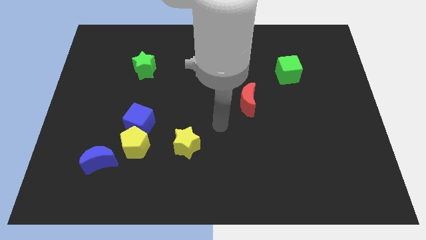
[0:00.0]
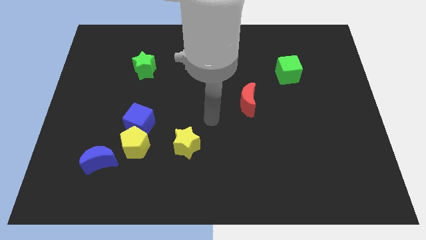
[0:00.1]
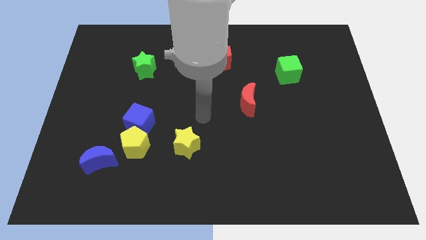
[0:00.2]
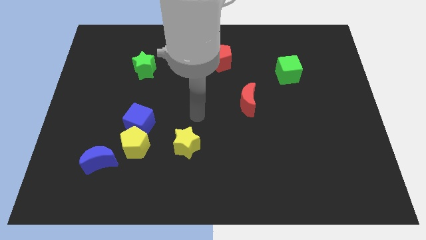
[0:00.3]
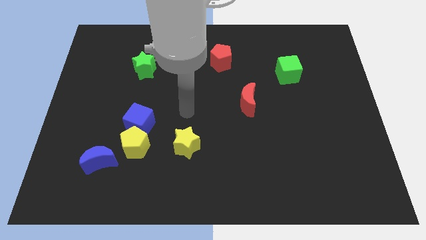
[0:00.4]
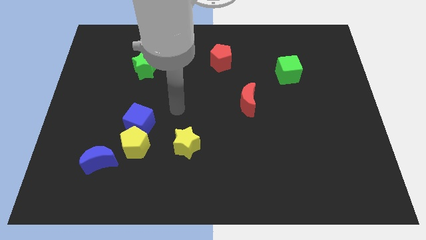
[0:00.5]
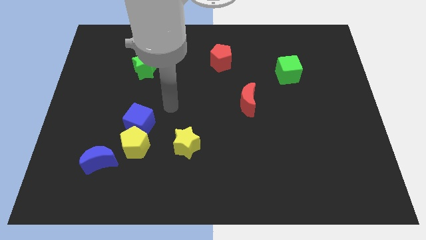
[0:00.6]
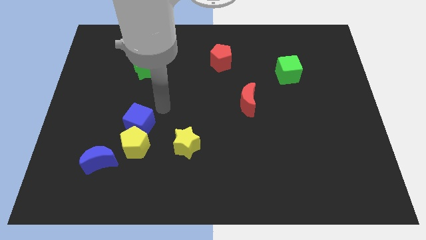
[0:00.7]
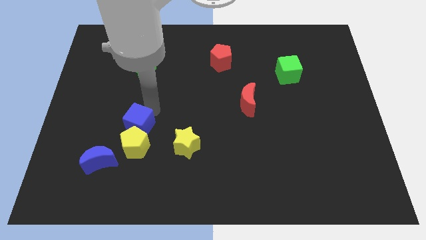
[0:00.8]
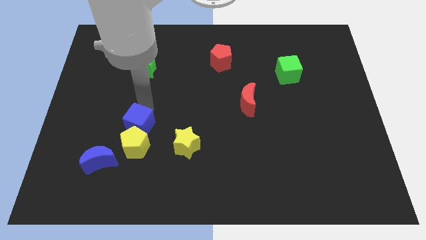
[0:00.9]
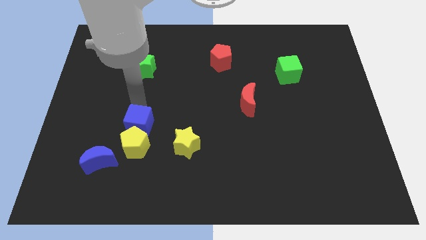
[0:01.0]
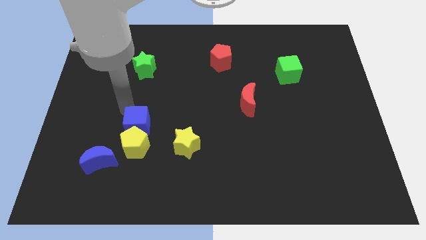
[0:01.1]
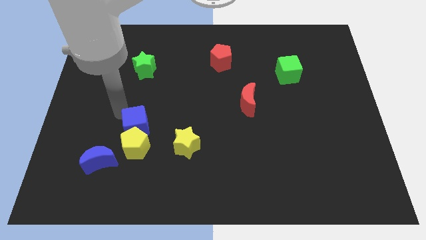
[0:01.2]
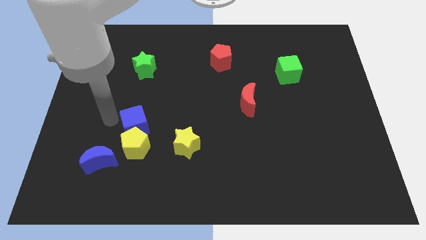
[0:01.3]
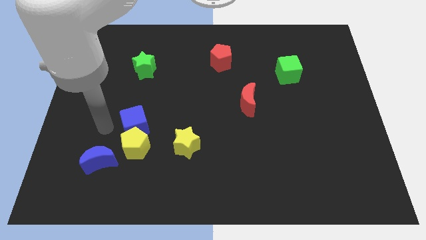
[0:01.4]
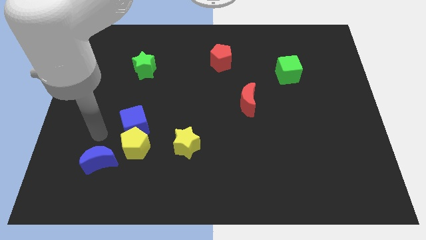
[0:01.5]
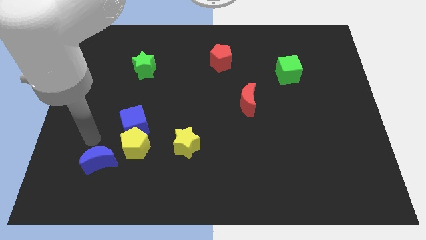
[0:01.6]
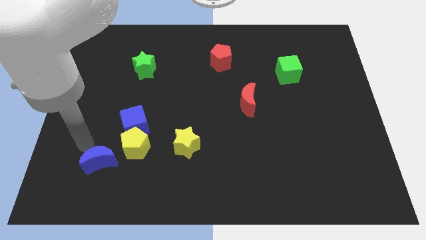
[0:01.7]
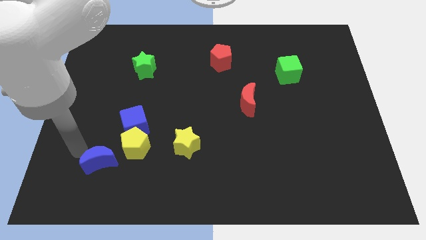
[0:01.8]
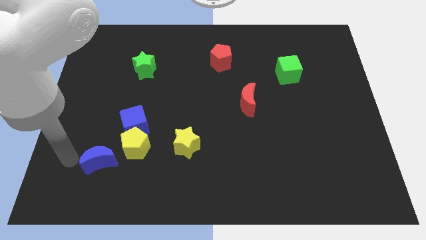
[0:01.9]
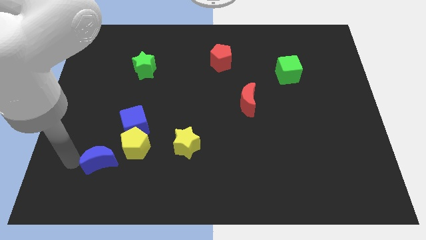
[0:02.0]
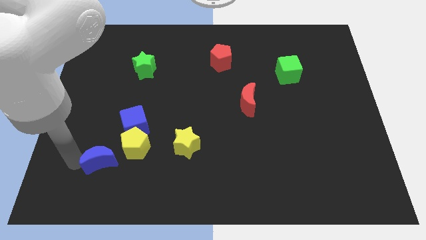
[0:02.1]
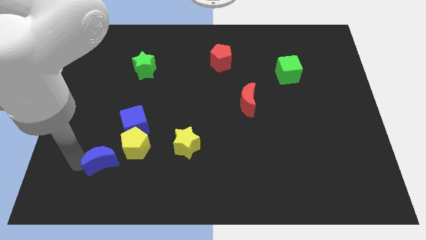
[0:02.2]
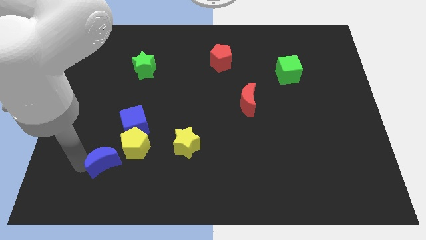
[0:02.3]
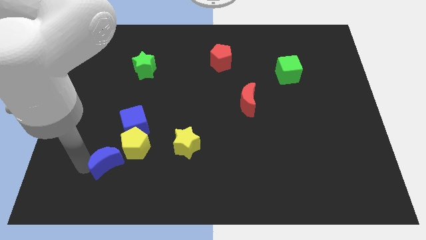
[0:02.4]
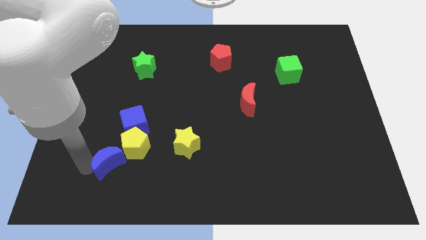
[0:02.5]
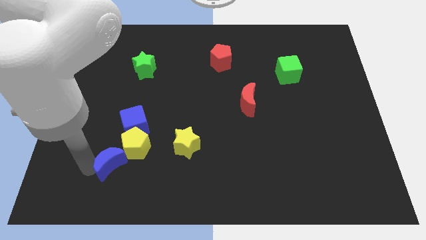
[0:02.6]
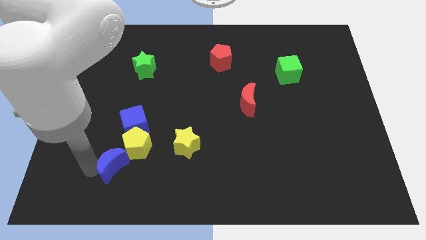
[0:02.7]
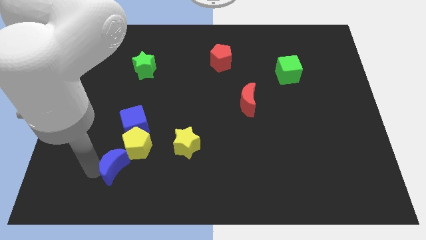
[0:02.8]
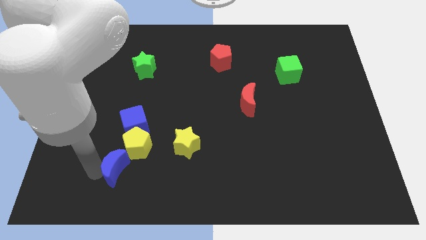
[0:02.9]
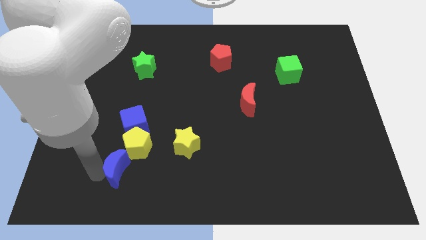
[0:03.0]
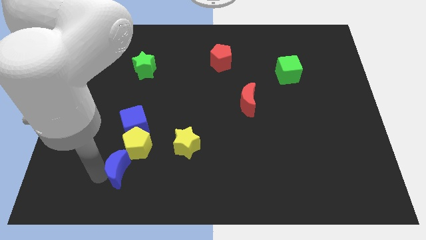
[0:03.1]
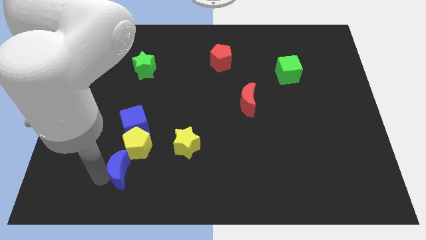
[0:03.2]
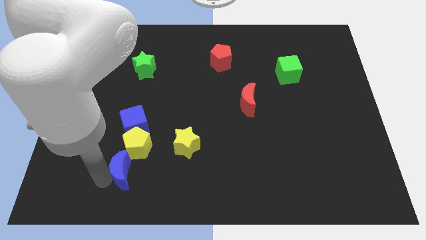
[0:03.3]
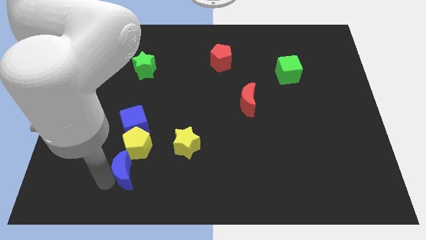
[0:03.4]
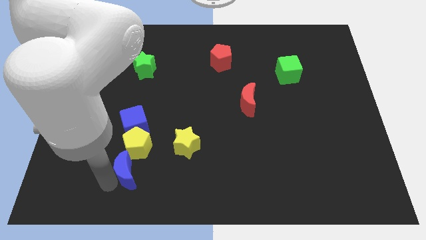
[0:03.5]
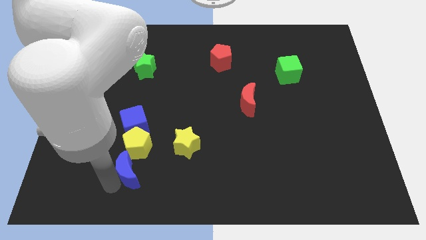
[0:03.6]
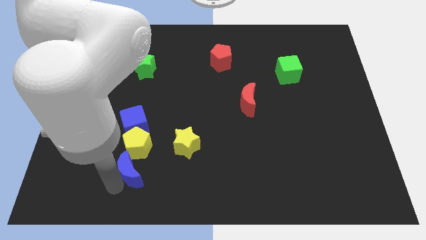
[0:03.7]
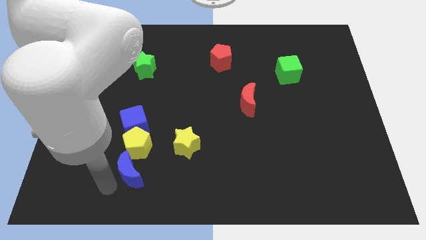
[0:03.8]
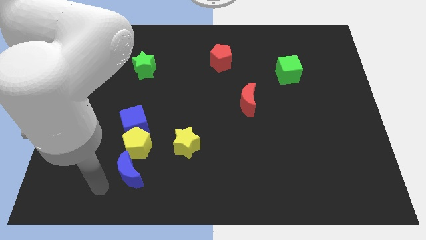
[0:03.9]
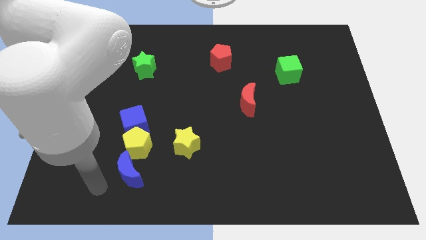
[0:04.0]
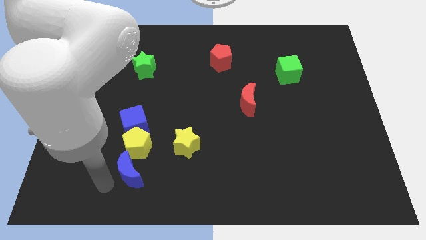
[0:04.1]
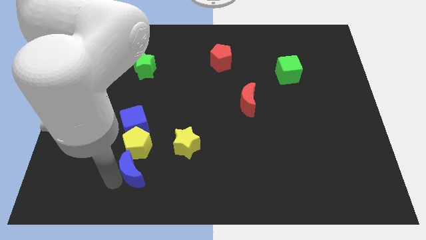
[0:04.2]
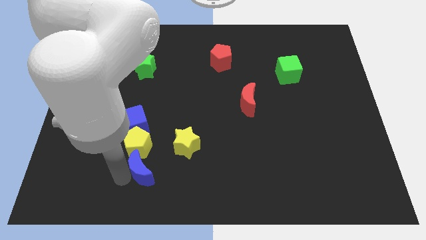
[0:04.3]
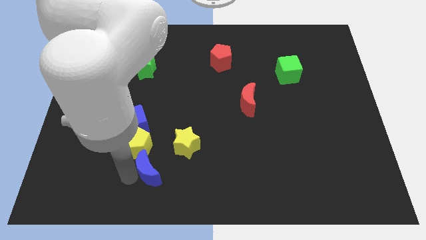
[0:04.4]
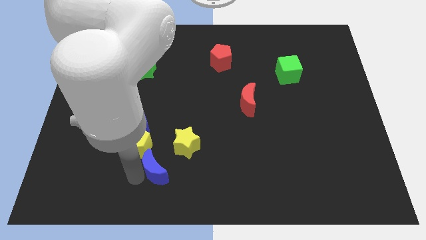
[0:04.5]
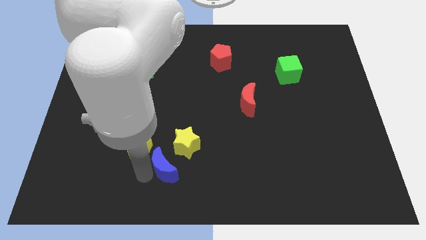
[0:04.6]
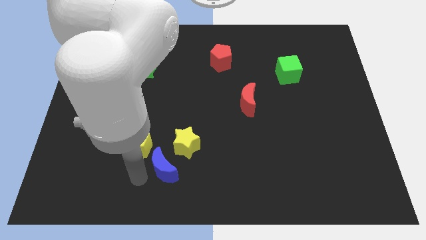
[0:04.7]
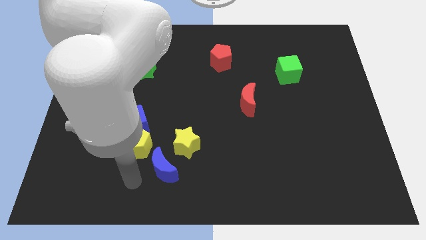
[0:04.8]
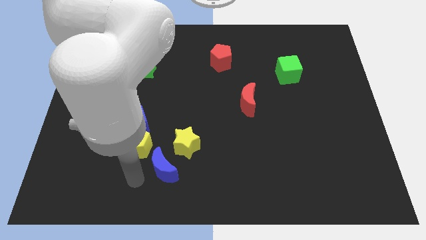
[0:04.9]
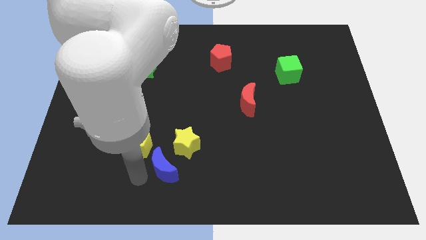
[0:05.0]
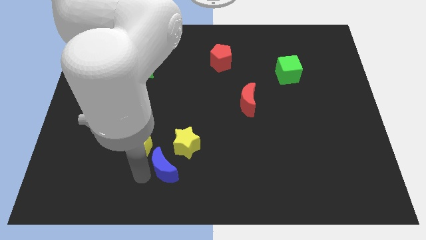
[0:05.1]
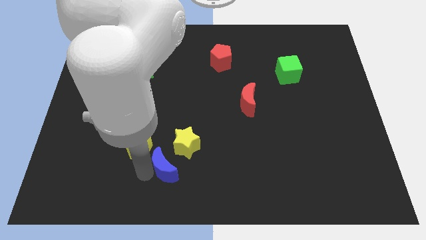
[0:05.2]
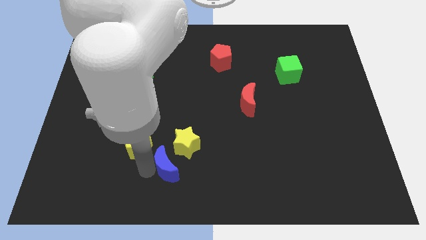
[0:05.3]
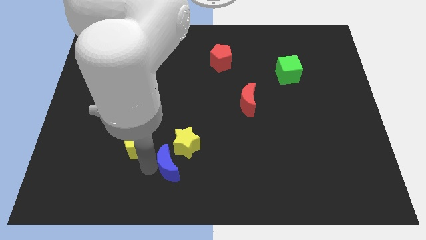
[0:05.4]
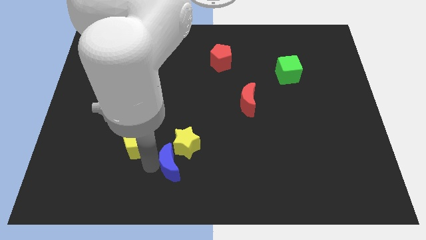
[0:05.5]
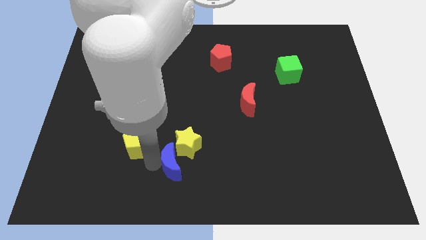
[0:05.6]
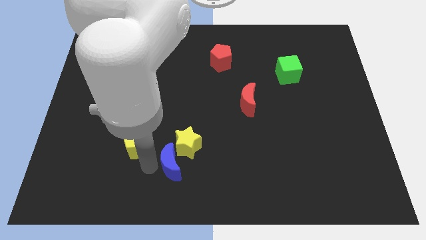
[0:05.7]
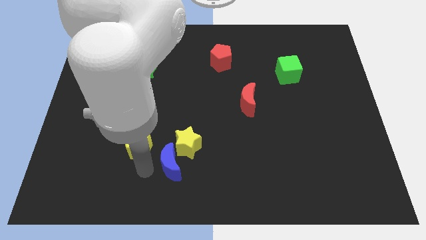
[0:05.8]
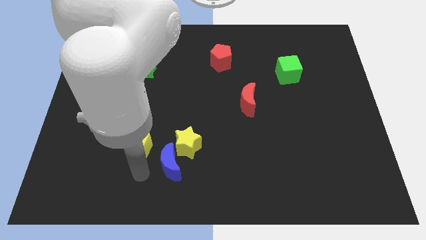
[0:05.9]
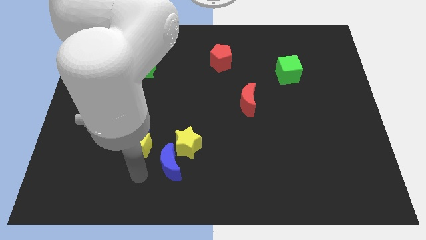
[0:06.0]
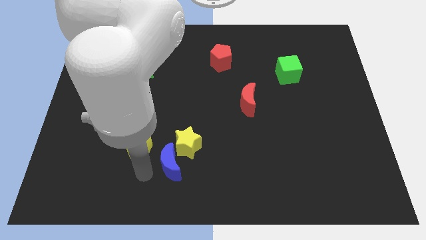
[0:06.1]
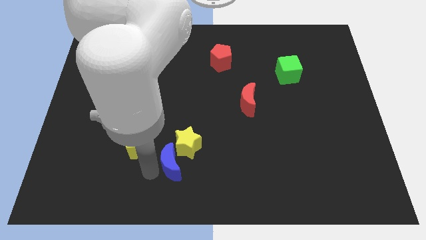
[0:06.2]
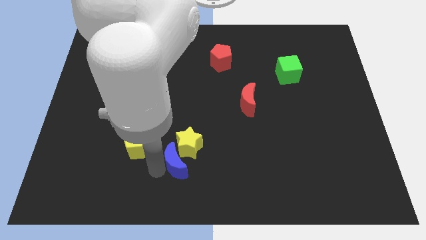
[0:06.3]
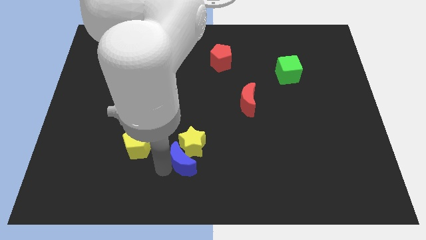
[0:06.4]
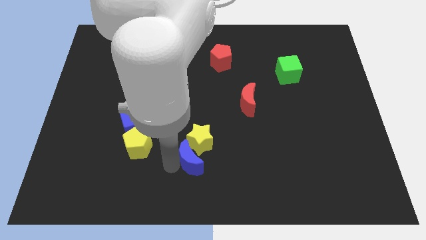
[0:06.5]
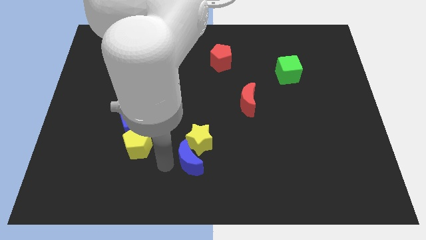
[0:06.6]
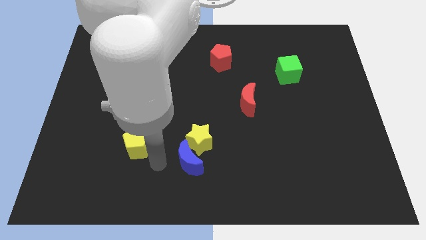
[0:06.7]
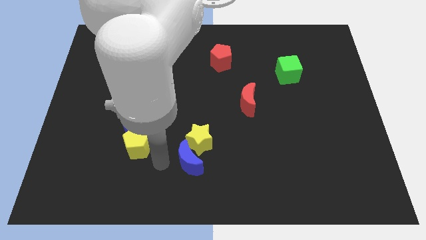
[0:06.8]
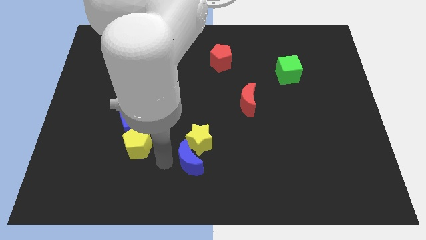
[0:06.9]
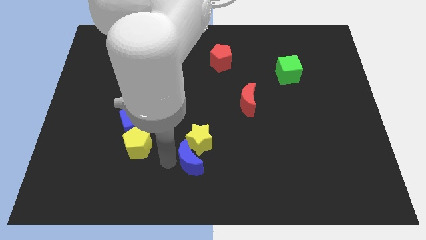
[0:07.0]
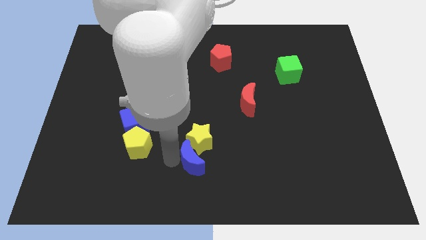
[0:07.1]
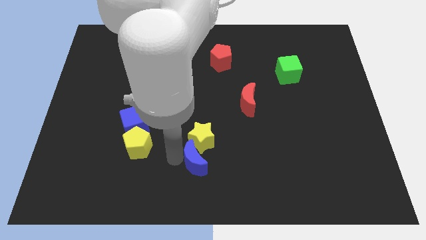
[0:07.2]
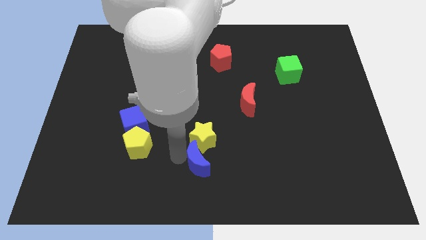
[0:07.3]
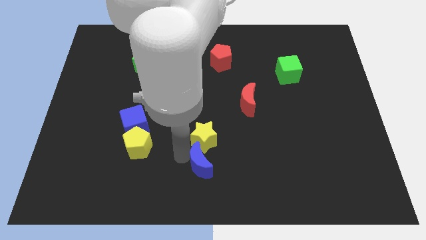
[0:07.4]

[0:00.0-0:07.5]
slide the blue moon to the bottom right of the yellow star
